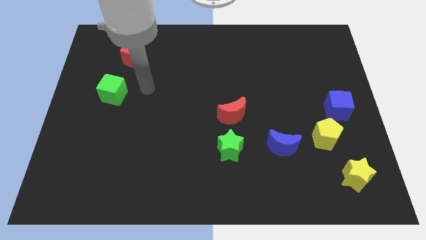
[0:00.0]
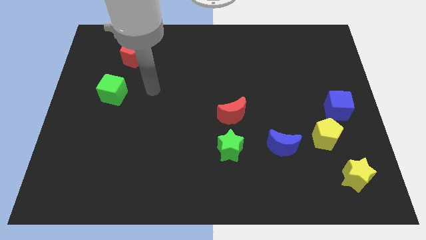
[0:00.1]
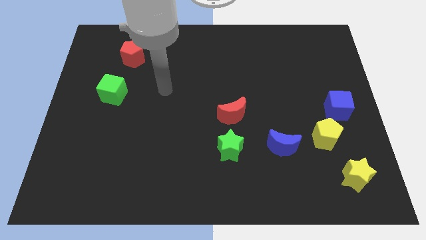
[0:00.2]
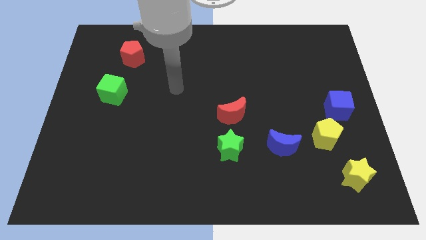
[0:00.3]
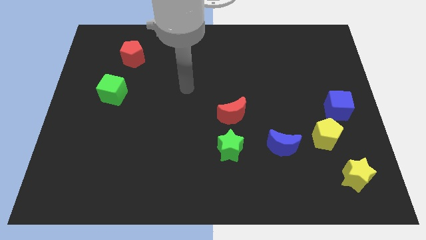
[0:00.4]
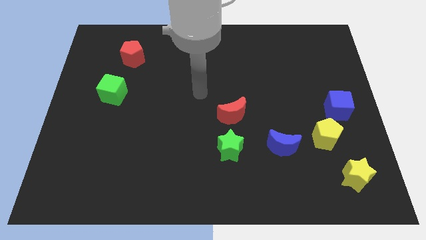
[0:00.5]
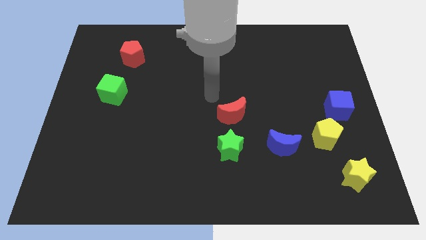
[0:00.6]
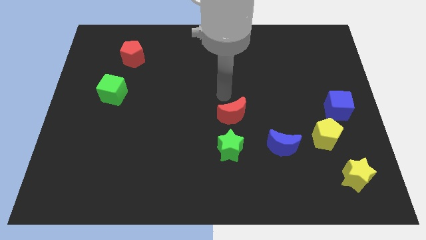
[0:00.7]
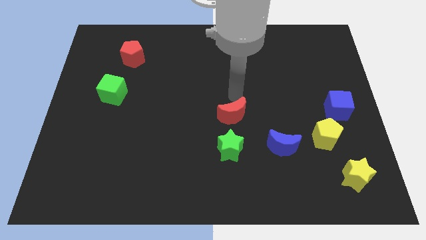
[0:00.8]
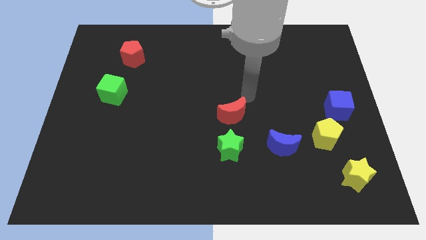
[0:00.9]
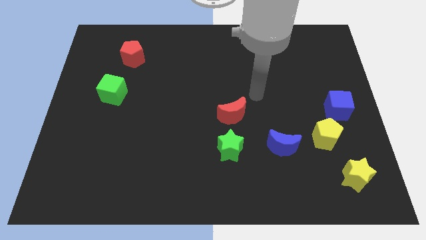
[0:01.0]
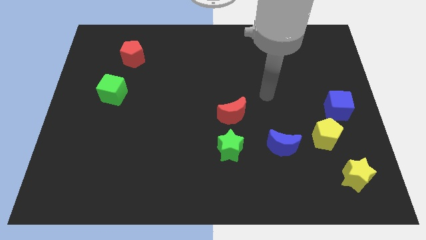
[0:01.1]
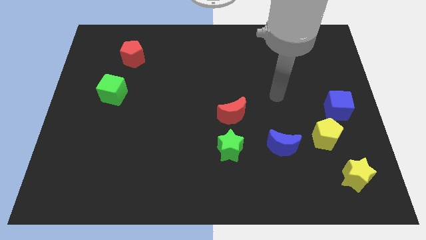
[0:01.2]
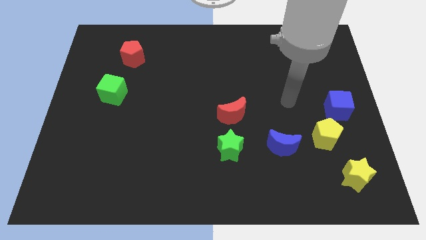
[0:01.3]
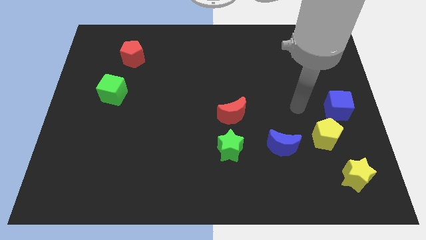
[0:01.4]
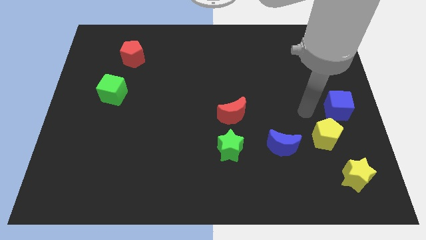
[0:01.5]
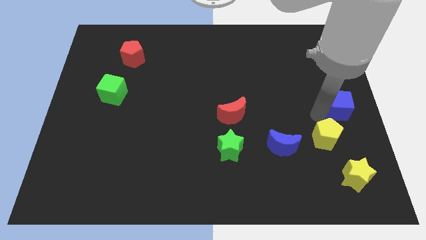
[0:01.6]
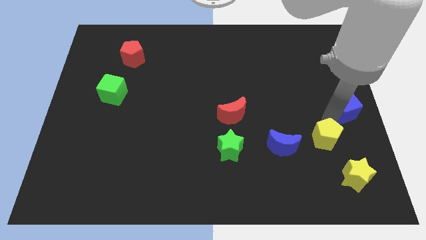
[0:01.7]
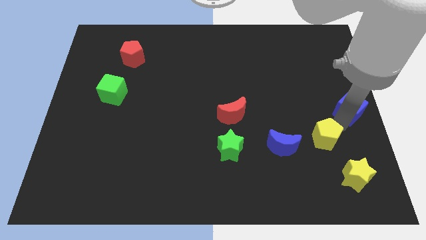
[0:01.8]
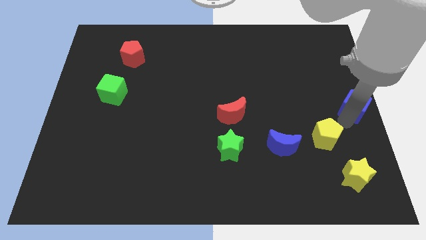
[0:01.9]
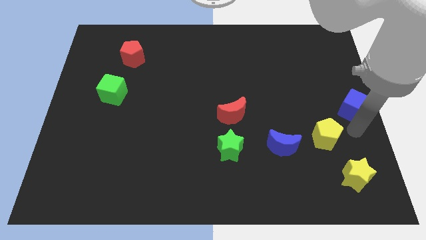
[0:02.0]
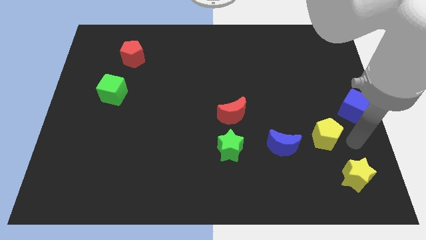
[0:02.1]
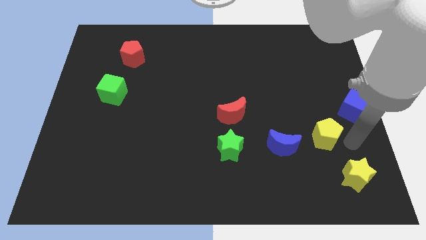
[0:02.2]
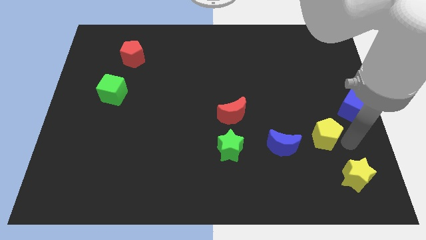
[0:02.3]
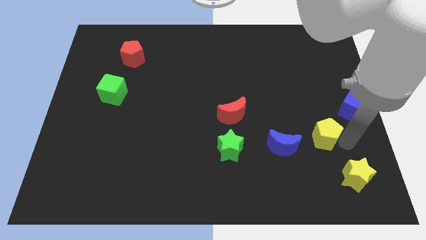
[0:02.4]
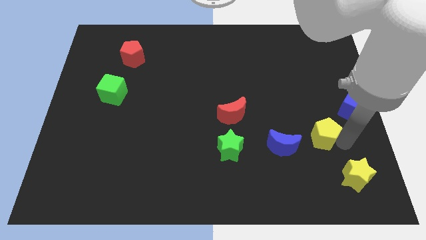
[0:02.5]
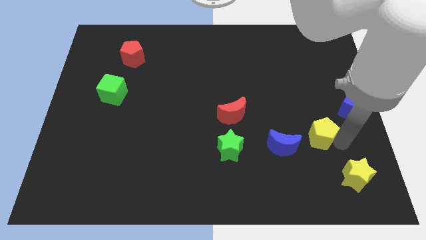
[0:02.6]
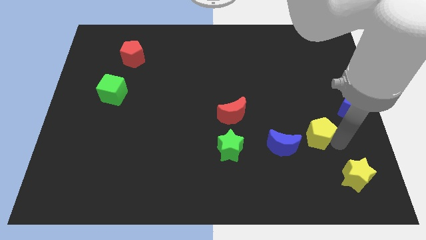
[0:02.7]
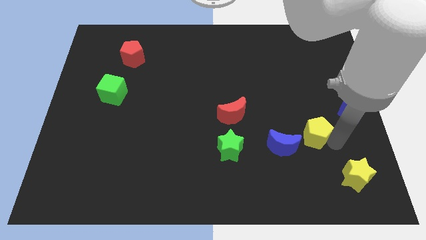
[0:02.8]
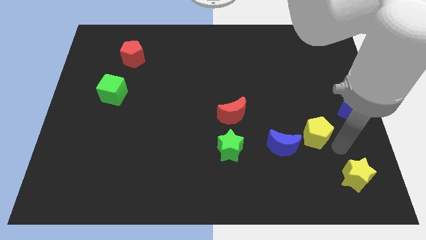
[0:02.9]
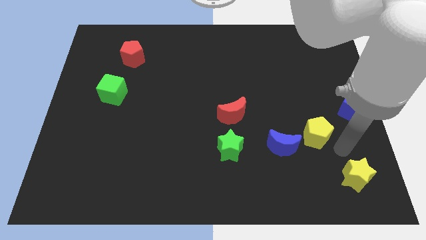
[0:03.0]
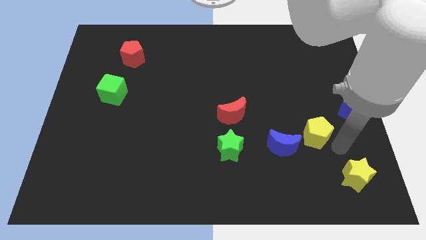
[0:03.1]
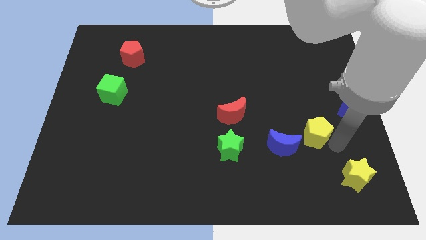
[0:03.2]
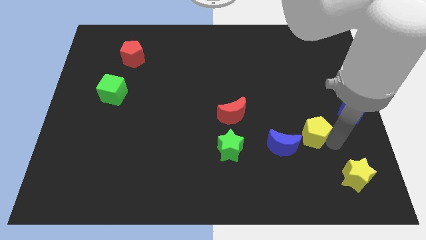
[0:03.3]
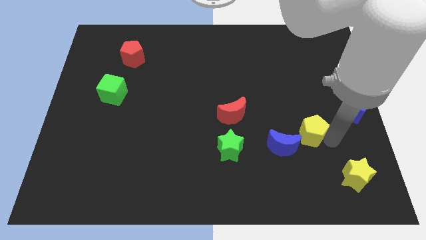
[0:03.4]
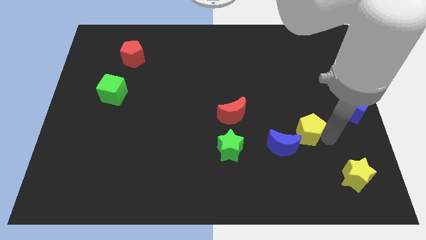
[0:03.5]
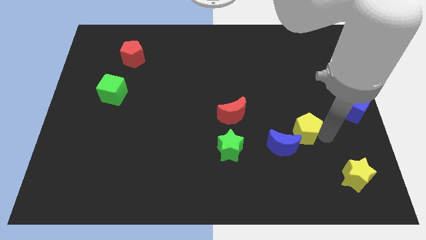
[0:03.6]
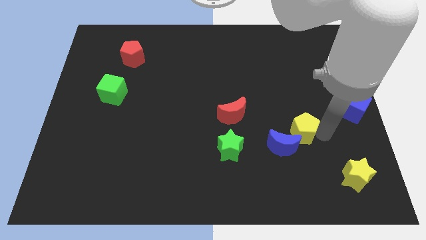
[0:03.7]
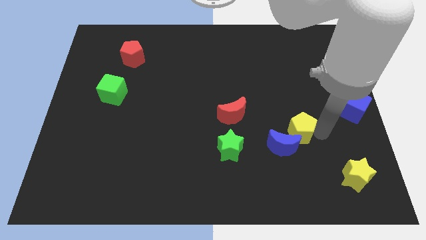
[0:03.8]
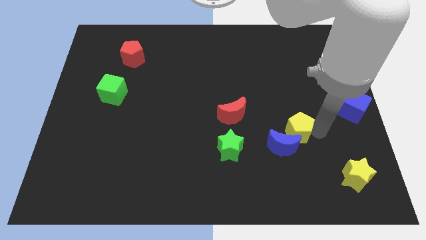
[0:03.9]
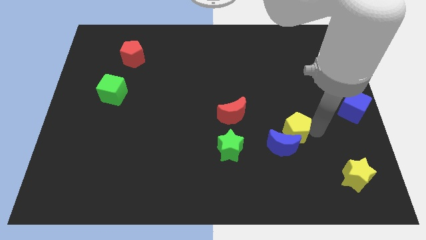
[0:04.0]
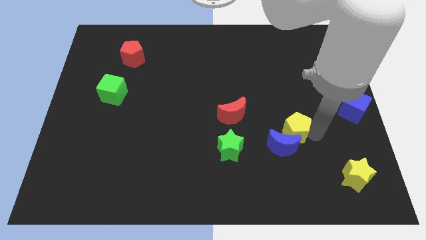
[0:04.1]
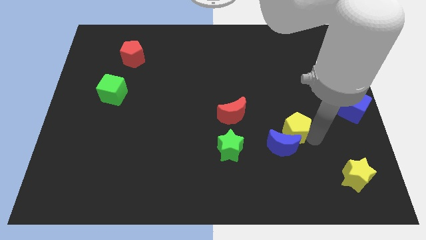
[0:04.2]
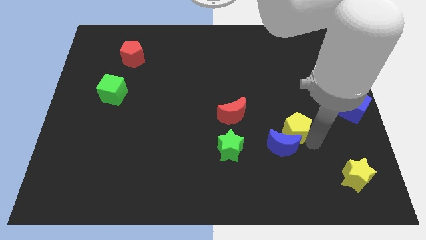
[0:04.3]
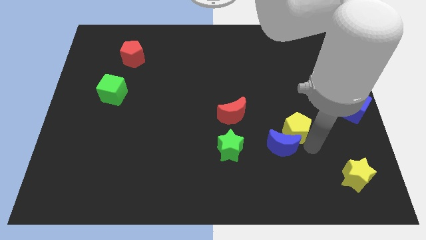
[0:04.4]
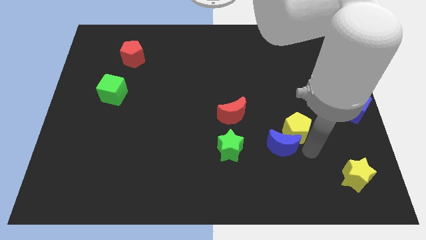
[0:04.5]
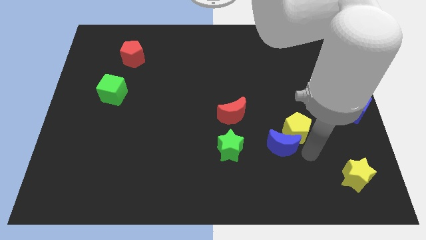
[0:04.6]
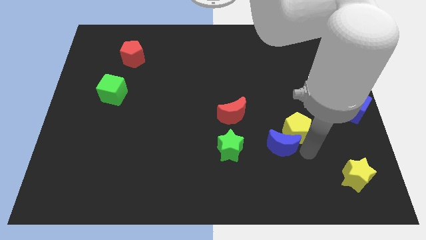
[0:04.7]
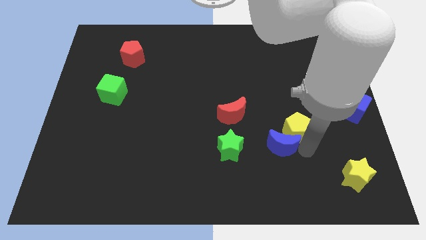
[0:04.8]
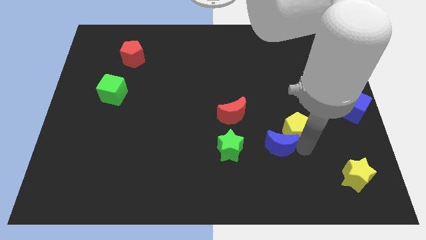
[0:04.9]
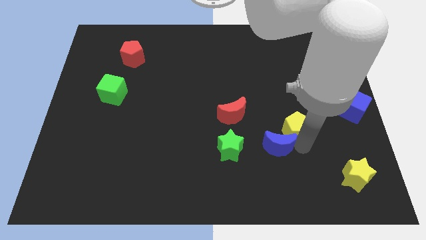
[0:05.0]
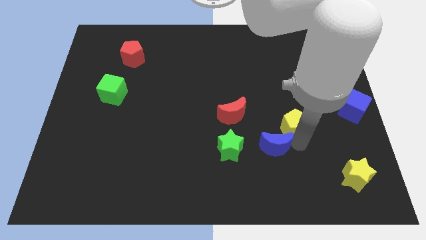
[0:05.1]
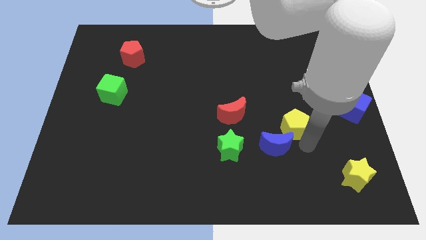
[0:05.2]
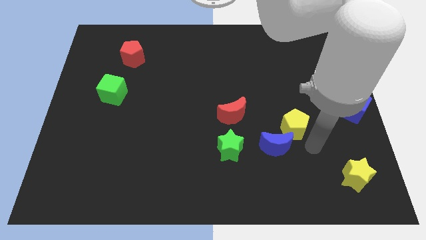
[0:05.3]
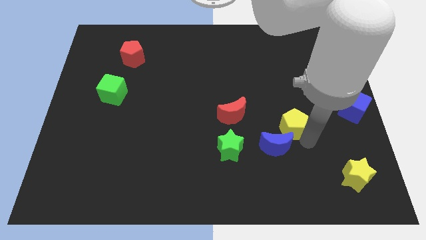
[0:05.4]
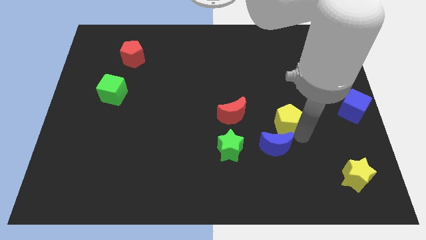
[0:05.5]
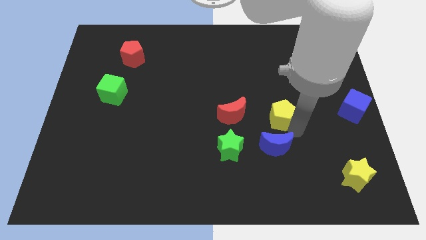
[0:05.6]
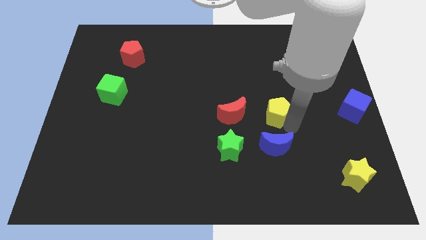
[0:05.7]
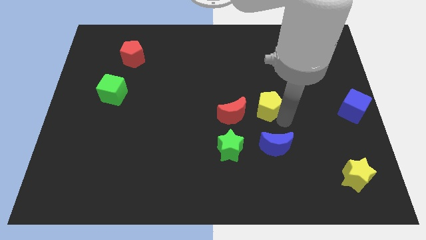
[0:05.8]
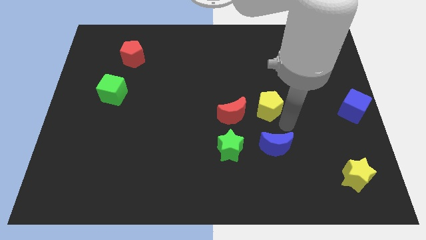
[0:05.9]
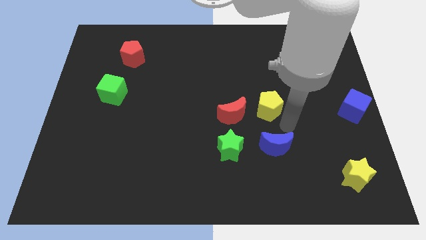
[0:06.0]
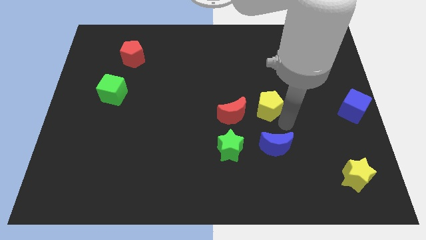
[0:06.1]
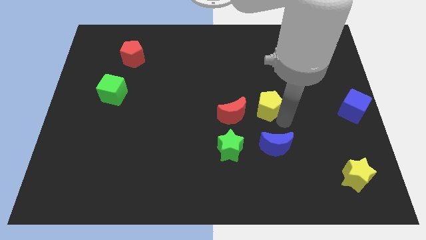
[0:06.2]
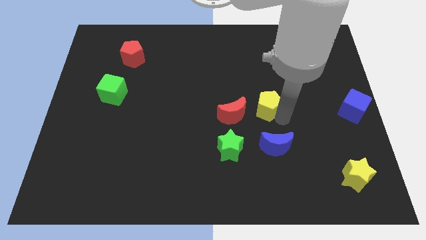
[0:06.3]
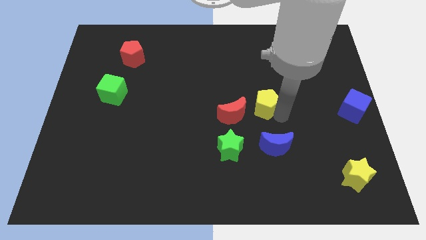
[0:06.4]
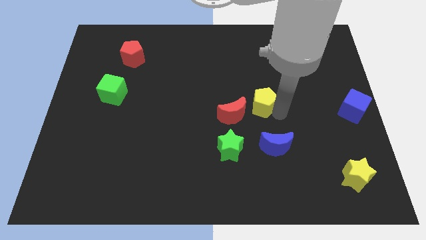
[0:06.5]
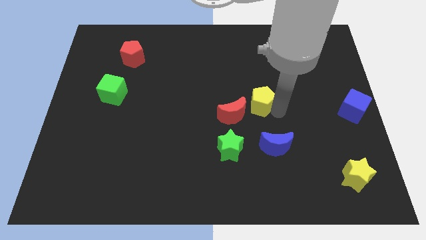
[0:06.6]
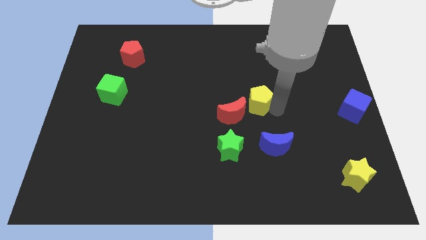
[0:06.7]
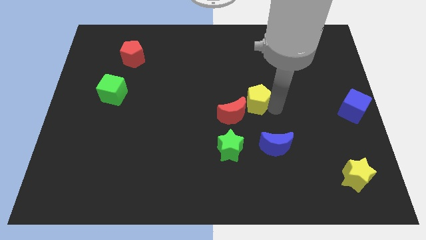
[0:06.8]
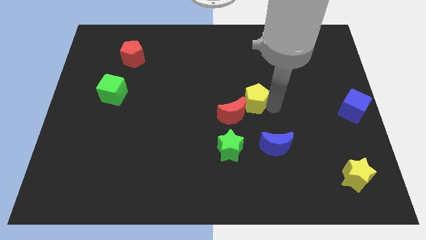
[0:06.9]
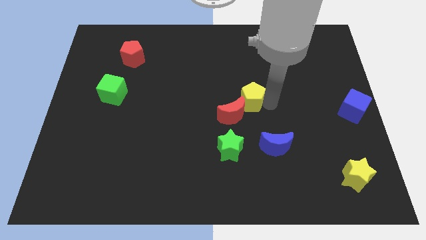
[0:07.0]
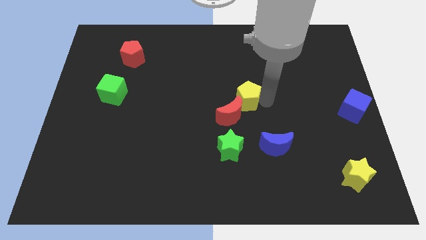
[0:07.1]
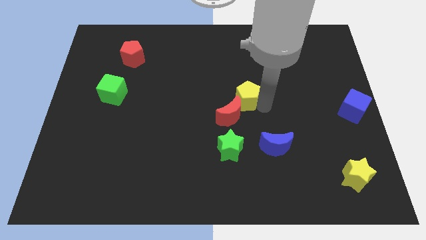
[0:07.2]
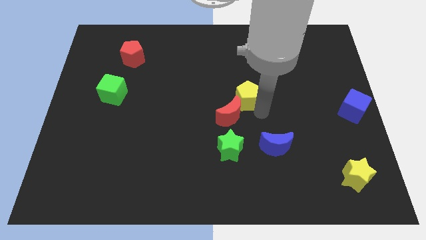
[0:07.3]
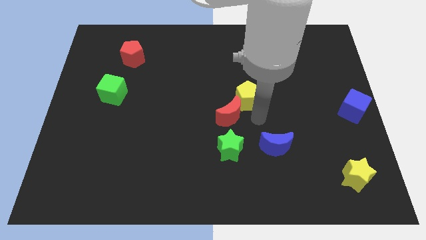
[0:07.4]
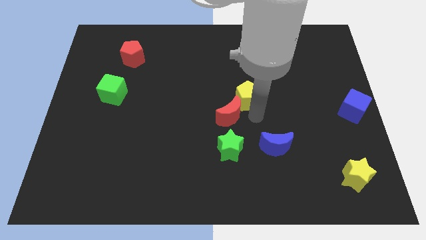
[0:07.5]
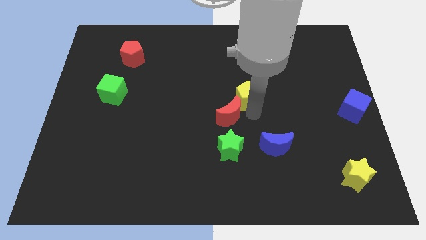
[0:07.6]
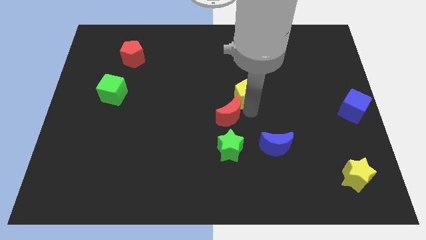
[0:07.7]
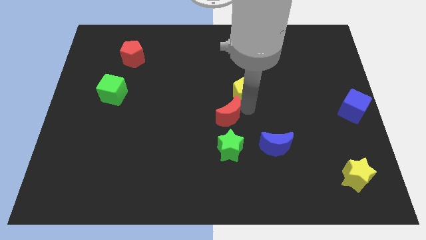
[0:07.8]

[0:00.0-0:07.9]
push the yellow pentagon diagonally up and left
